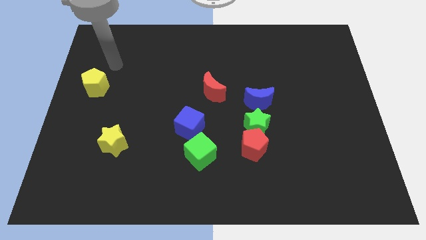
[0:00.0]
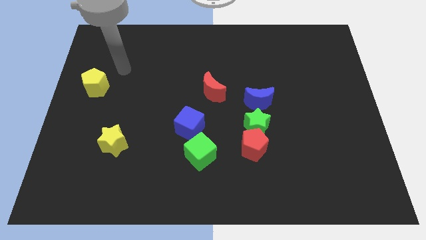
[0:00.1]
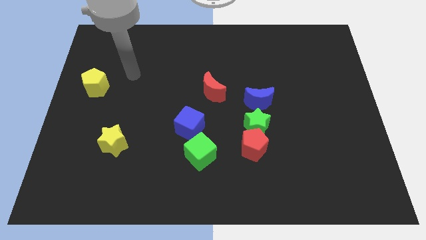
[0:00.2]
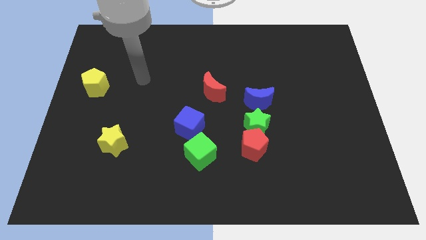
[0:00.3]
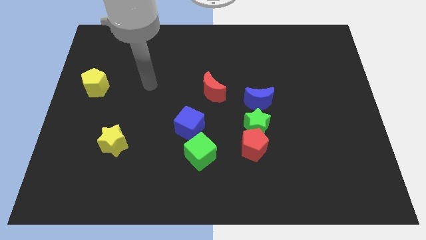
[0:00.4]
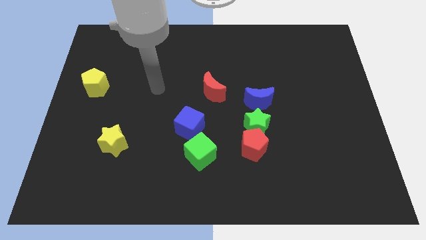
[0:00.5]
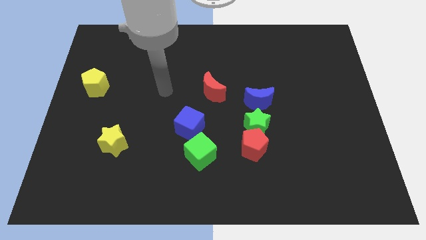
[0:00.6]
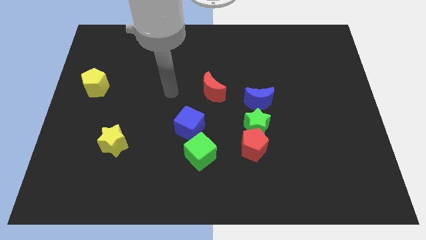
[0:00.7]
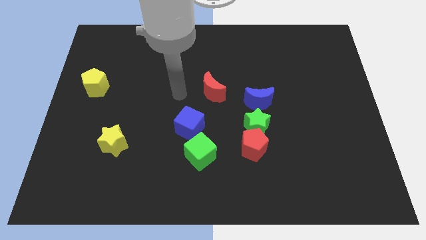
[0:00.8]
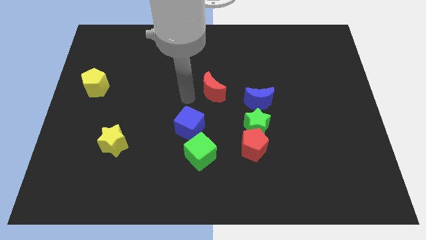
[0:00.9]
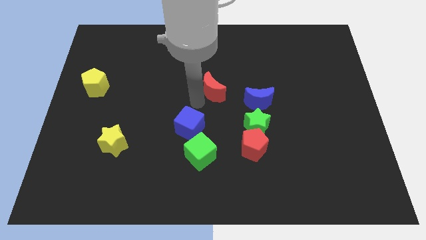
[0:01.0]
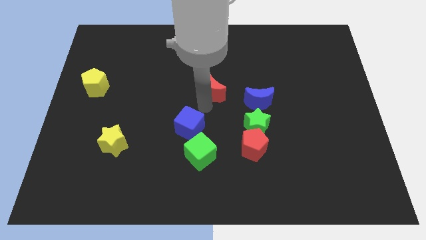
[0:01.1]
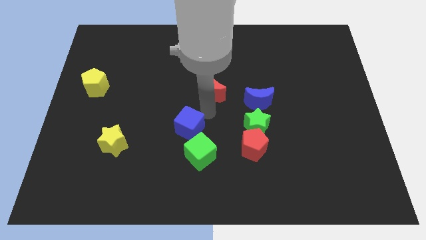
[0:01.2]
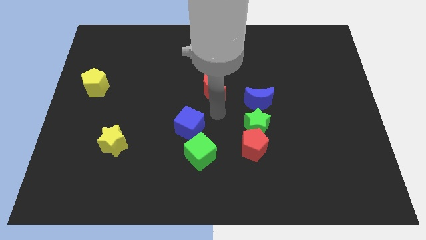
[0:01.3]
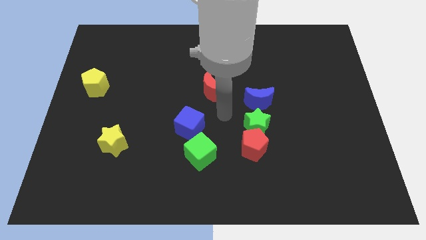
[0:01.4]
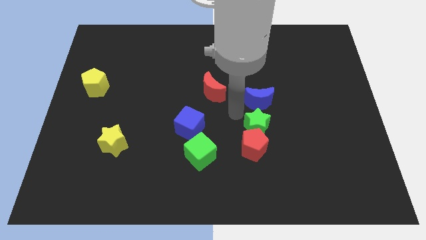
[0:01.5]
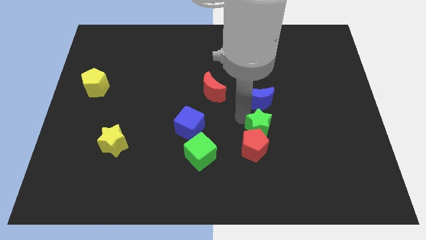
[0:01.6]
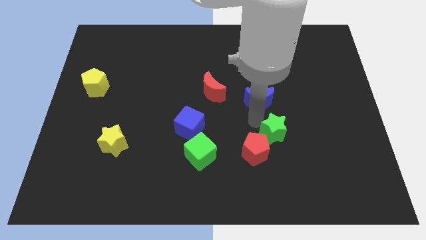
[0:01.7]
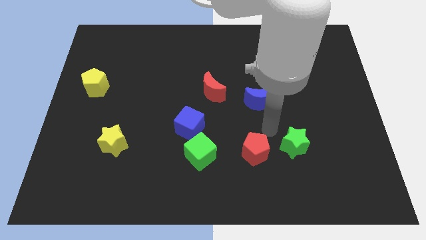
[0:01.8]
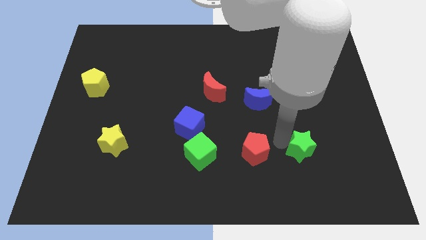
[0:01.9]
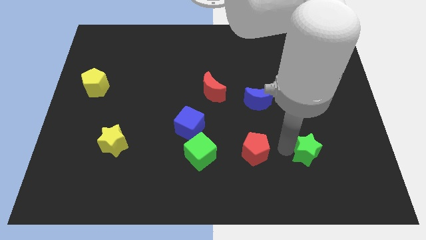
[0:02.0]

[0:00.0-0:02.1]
pull the red pentagon apart from the green star

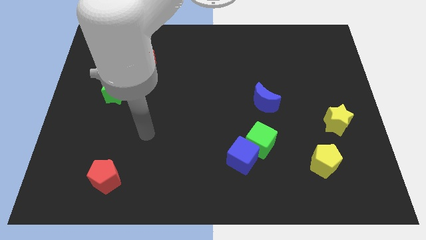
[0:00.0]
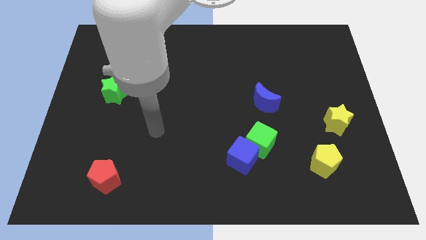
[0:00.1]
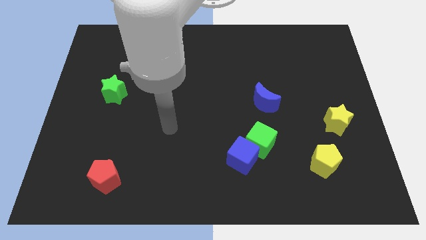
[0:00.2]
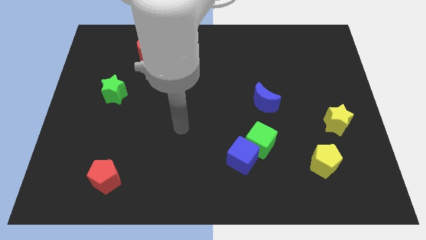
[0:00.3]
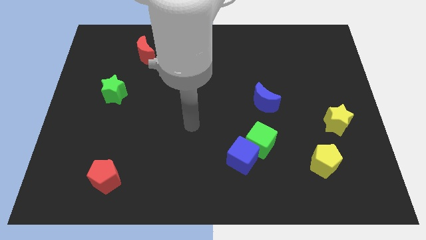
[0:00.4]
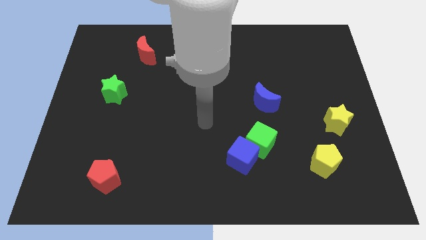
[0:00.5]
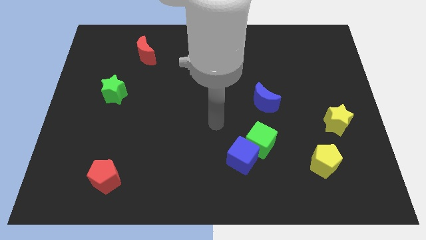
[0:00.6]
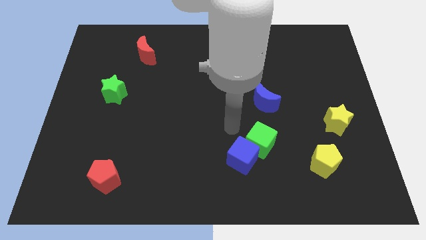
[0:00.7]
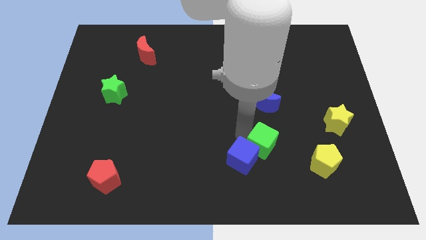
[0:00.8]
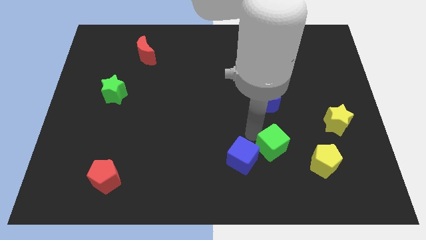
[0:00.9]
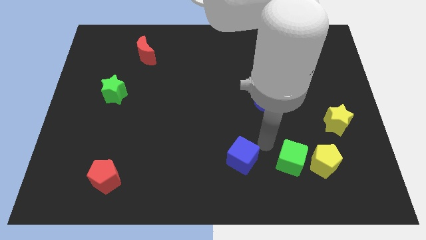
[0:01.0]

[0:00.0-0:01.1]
pull the blue cube apart from the green cube

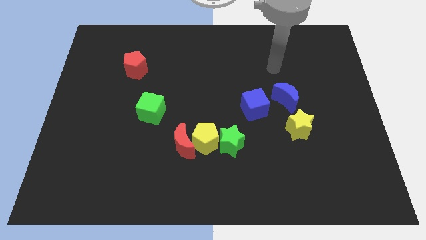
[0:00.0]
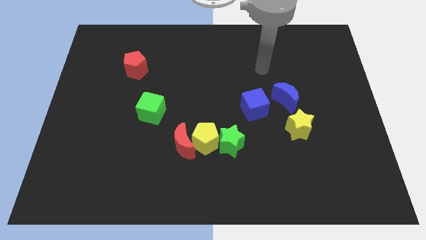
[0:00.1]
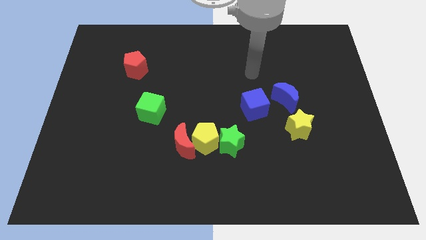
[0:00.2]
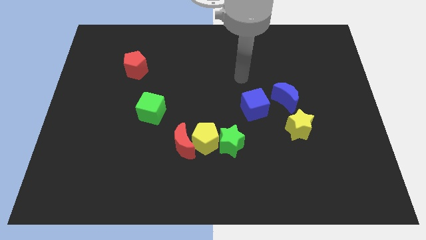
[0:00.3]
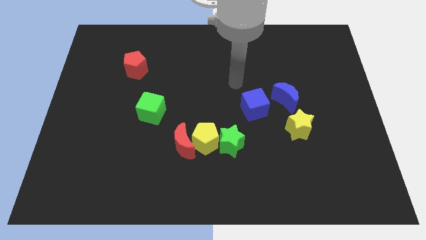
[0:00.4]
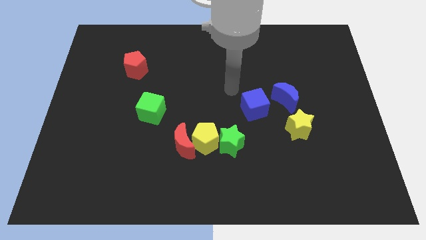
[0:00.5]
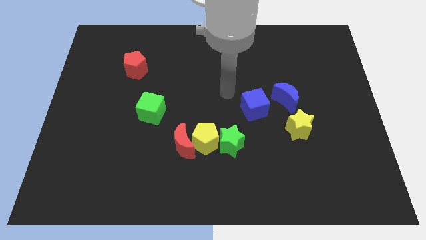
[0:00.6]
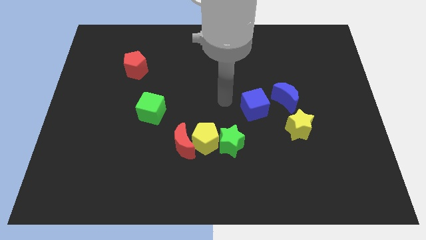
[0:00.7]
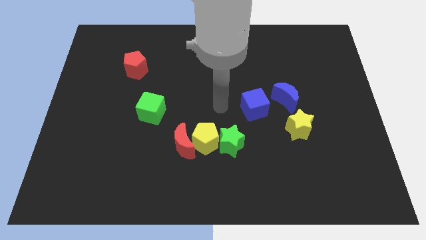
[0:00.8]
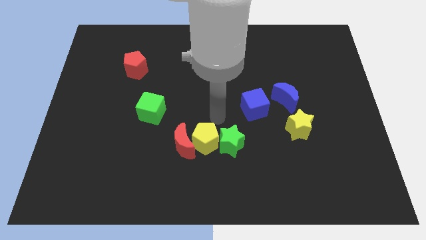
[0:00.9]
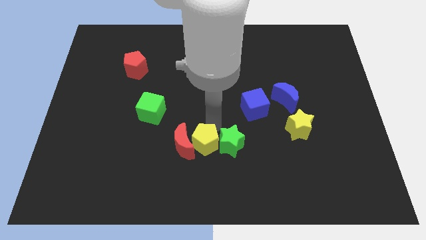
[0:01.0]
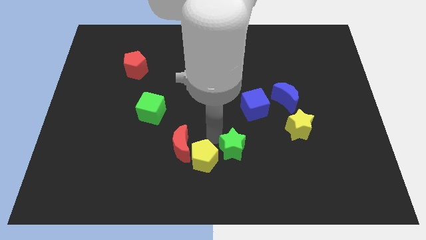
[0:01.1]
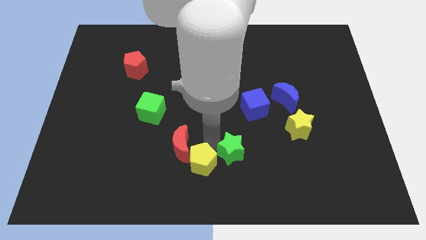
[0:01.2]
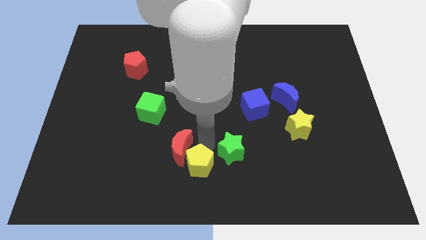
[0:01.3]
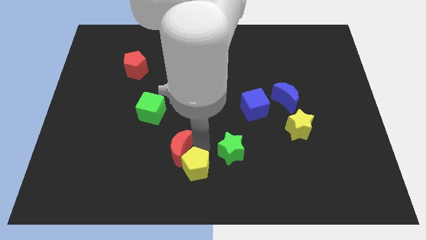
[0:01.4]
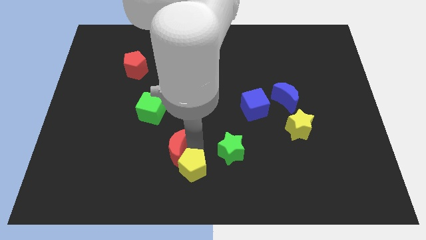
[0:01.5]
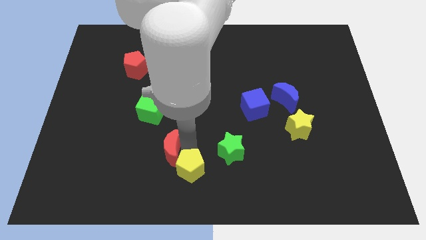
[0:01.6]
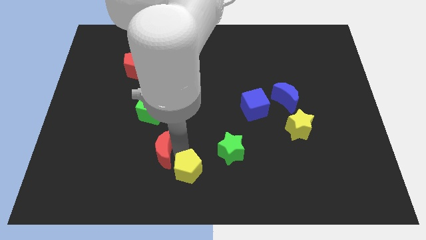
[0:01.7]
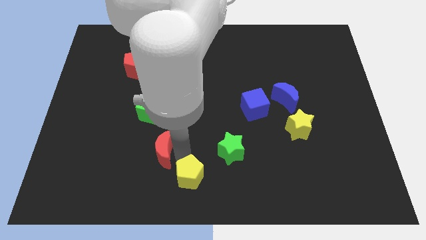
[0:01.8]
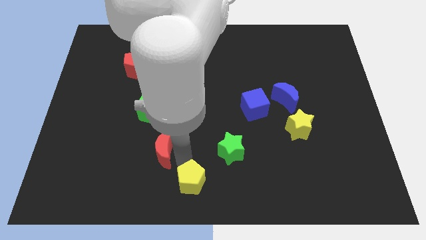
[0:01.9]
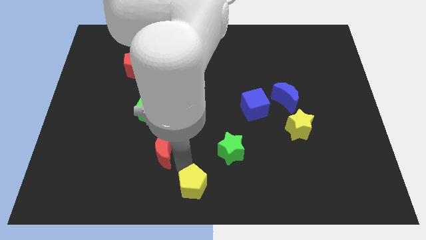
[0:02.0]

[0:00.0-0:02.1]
pull the red moon apart from the yellow pentagon

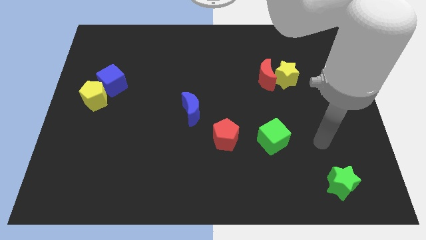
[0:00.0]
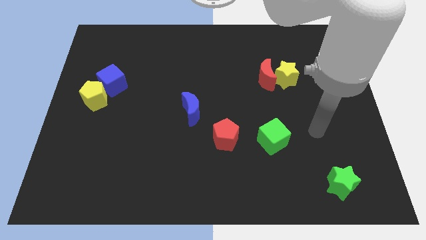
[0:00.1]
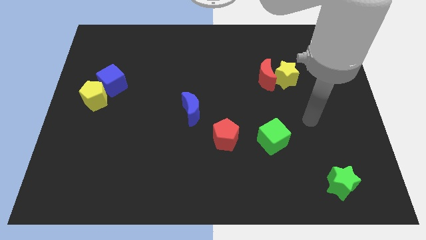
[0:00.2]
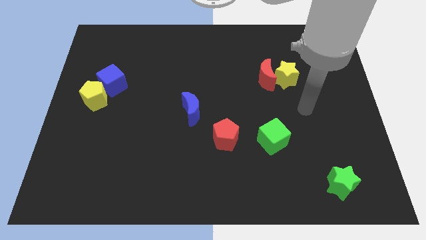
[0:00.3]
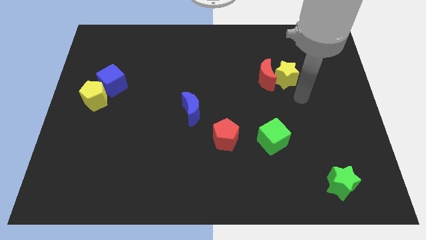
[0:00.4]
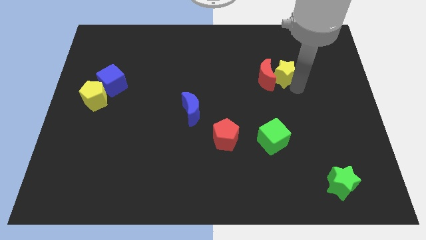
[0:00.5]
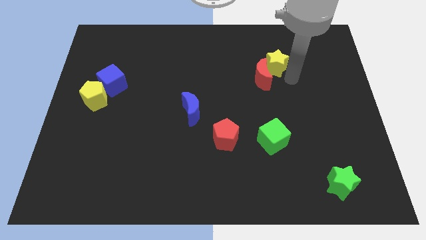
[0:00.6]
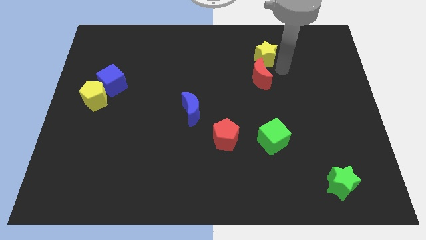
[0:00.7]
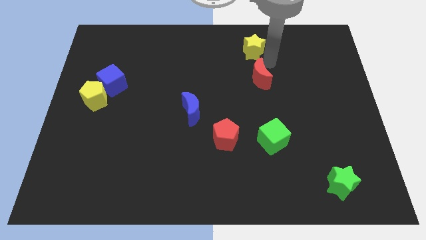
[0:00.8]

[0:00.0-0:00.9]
move the red moon away from the yellow star

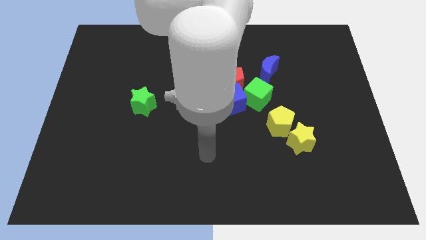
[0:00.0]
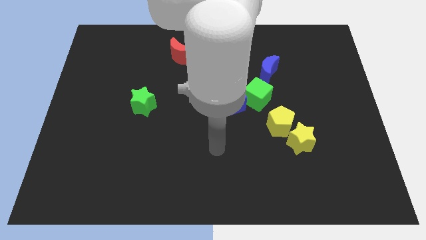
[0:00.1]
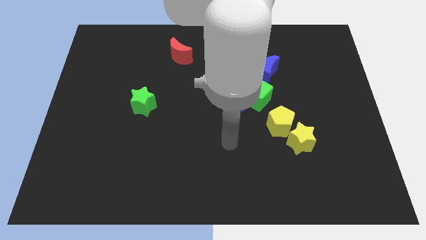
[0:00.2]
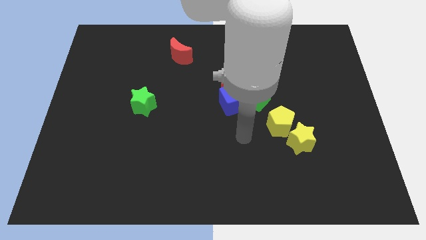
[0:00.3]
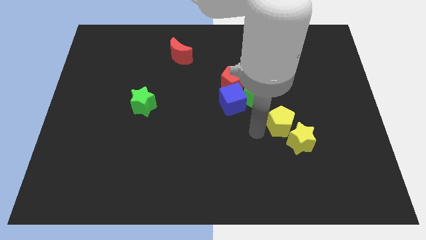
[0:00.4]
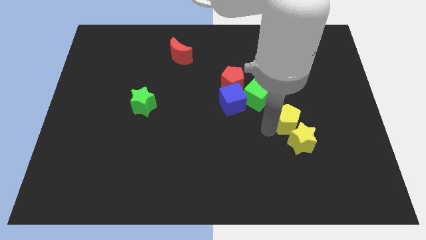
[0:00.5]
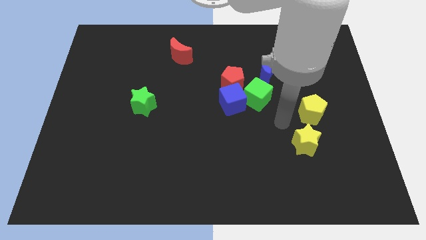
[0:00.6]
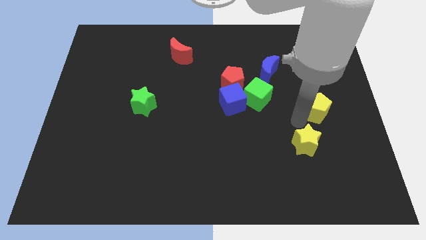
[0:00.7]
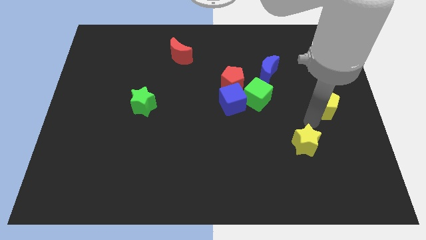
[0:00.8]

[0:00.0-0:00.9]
move the yellow star away from the yellow pentagon

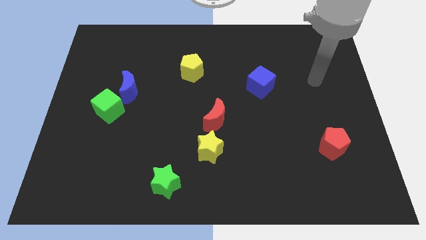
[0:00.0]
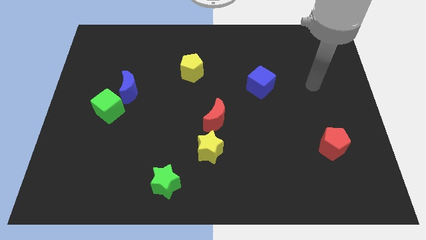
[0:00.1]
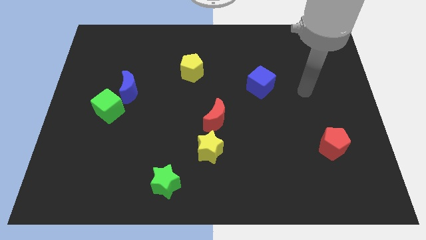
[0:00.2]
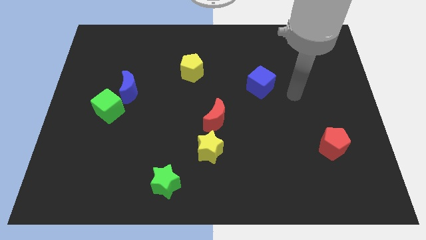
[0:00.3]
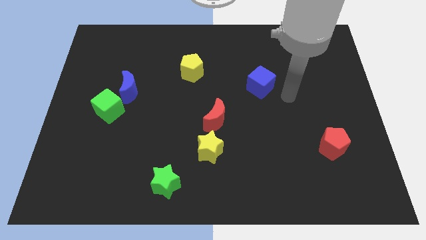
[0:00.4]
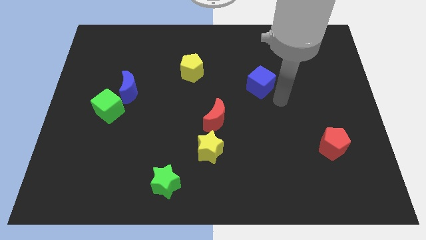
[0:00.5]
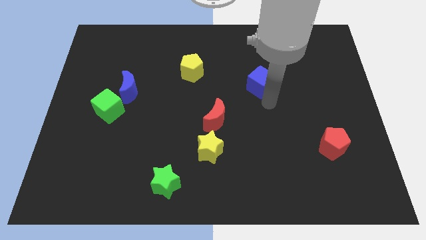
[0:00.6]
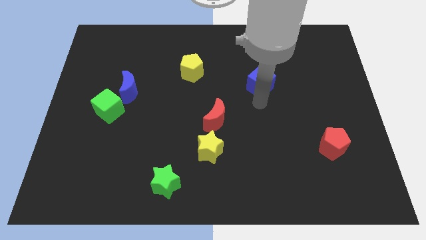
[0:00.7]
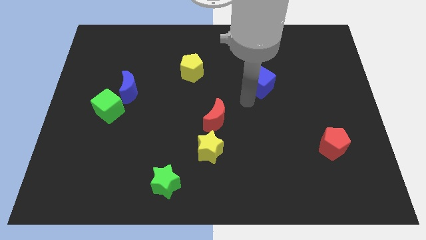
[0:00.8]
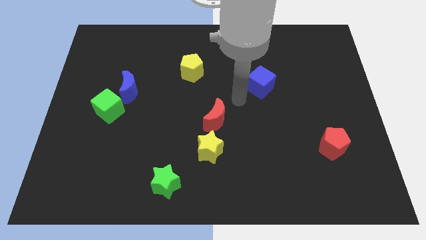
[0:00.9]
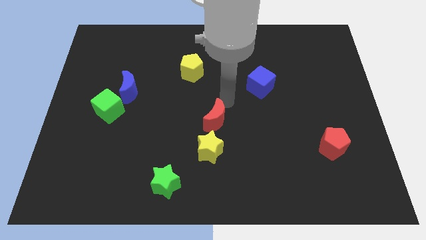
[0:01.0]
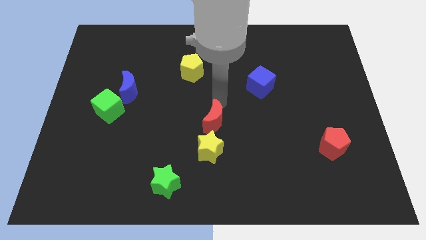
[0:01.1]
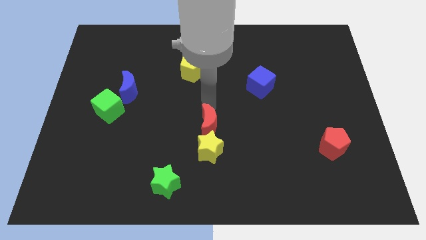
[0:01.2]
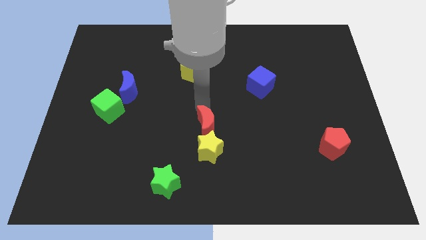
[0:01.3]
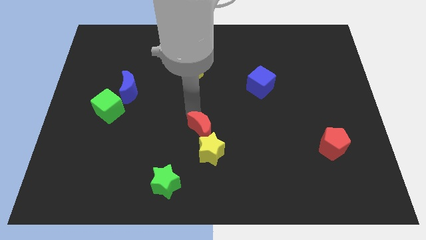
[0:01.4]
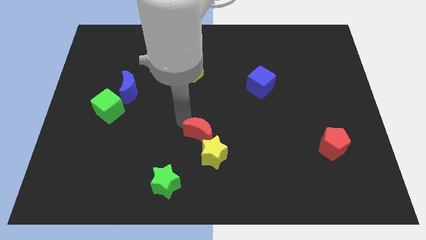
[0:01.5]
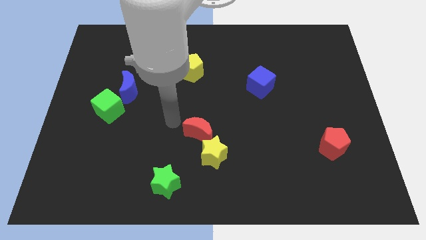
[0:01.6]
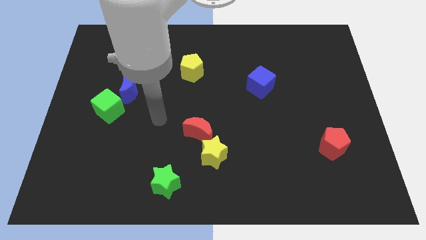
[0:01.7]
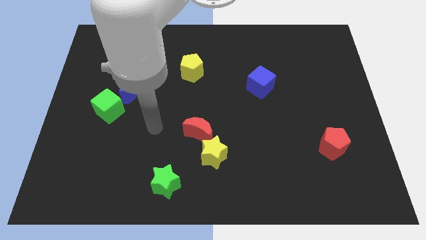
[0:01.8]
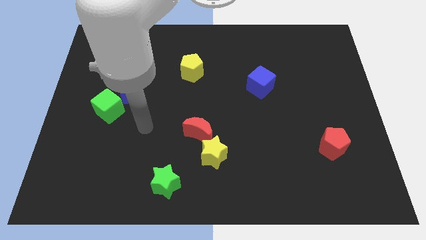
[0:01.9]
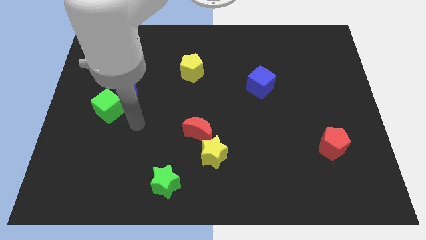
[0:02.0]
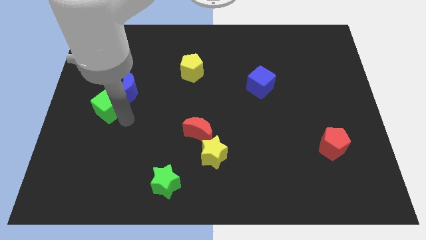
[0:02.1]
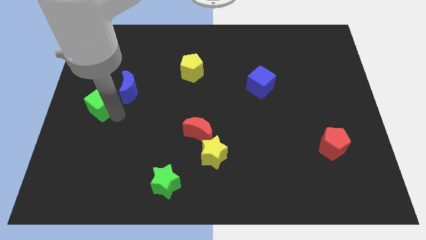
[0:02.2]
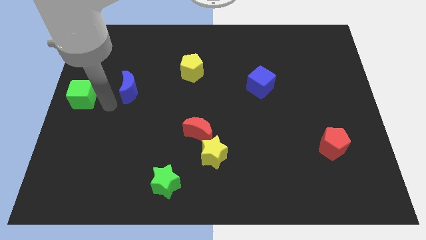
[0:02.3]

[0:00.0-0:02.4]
move the blue moon away from the green cube
